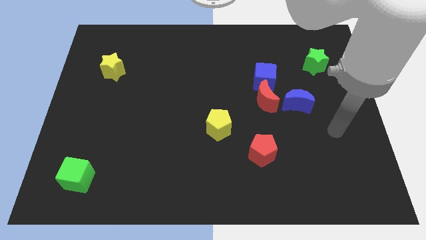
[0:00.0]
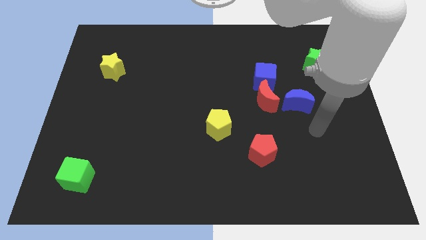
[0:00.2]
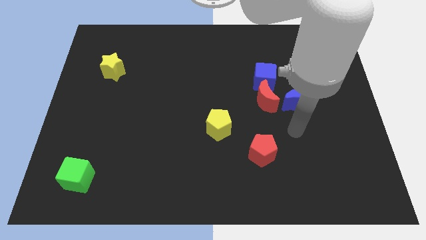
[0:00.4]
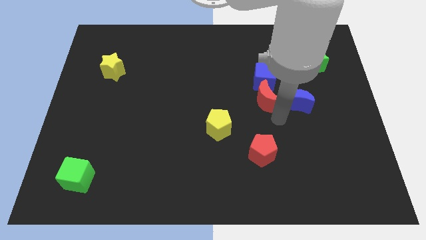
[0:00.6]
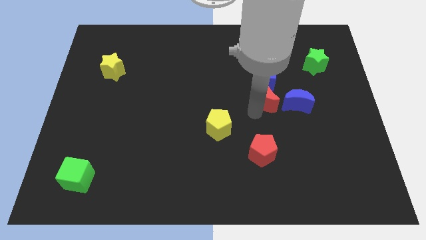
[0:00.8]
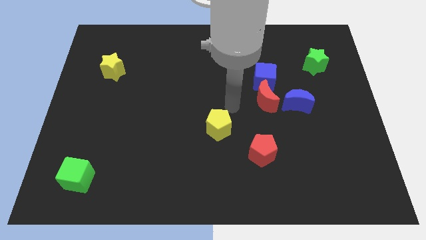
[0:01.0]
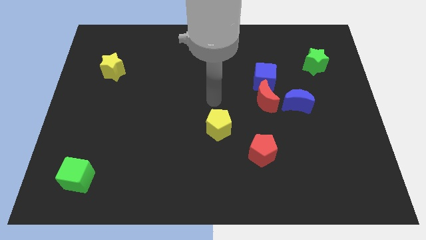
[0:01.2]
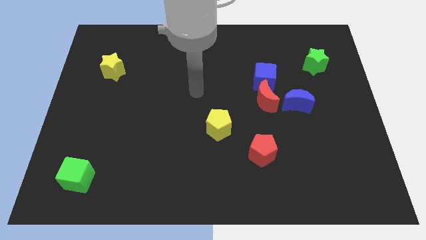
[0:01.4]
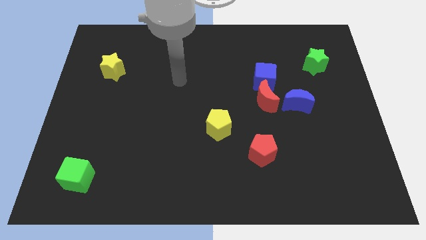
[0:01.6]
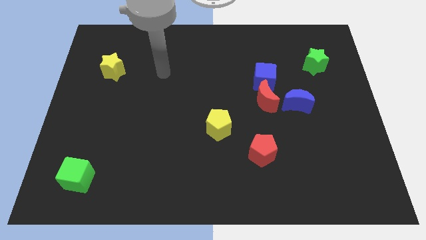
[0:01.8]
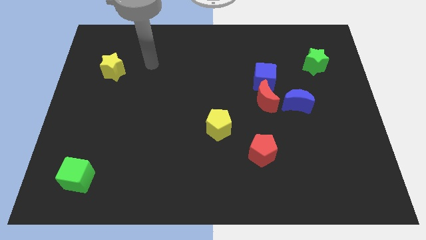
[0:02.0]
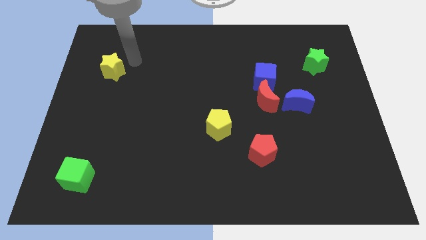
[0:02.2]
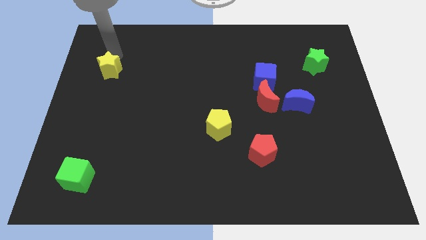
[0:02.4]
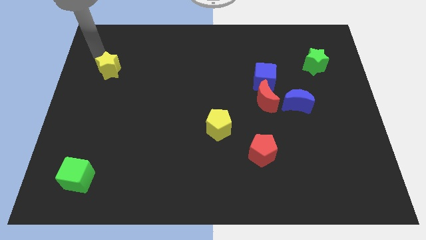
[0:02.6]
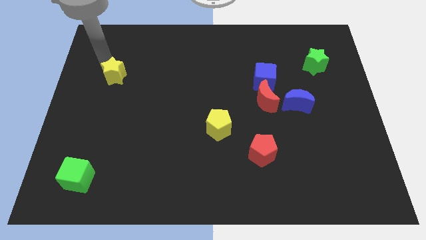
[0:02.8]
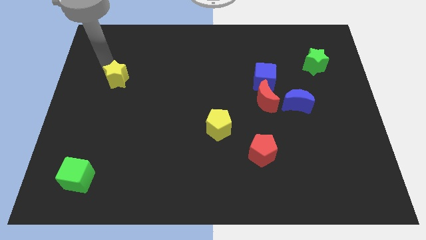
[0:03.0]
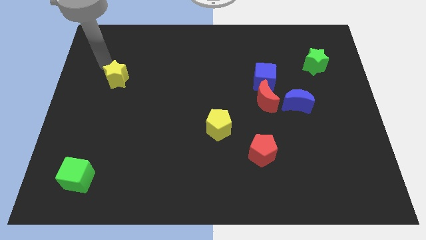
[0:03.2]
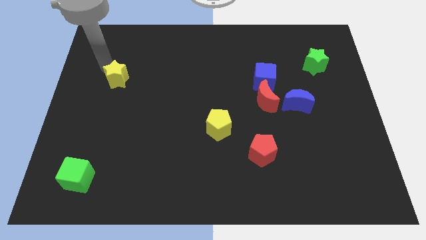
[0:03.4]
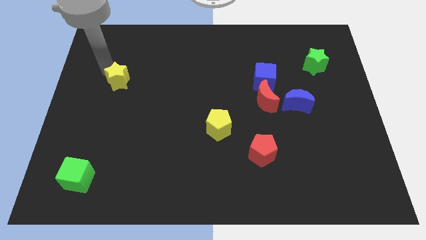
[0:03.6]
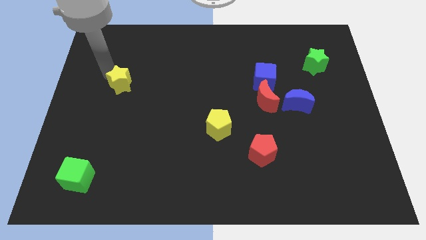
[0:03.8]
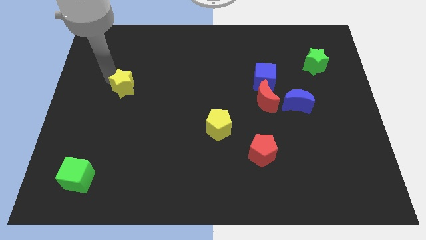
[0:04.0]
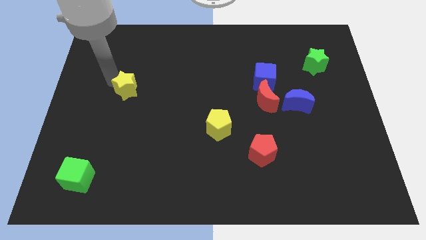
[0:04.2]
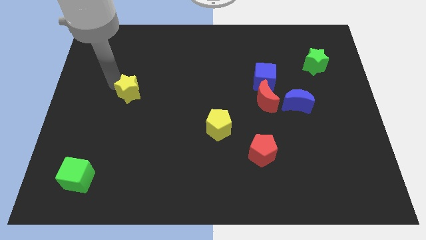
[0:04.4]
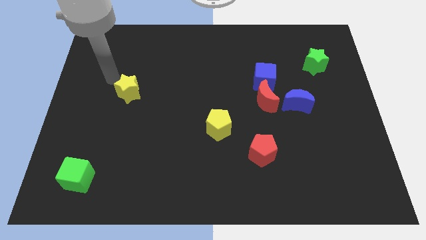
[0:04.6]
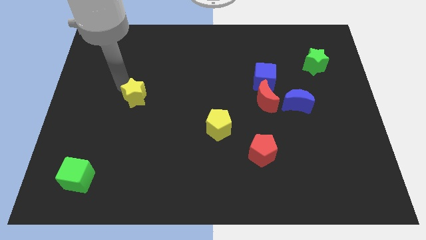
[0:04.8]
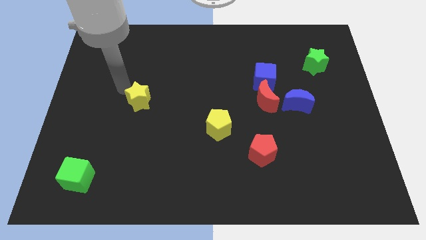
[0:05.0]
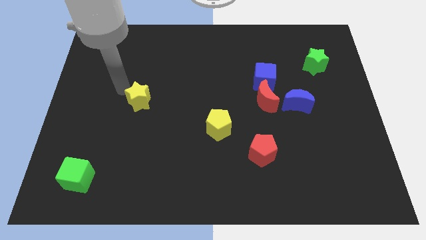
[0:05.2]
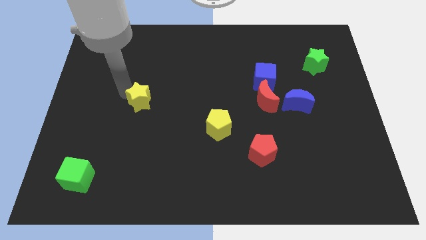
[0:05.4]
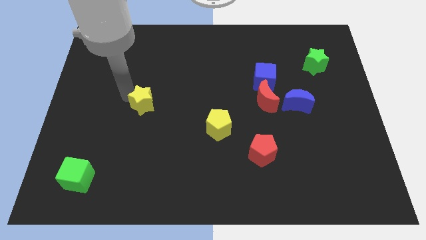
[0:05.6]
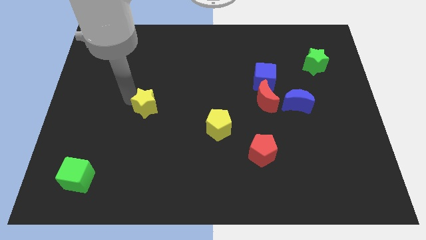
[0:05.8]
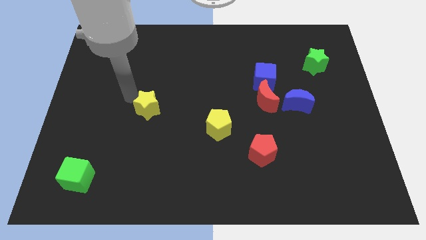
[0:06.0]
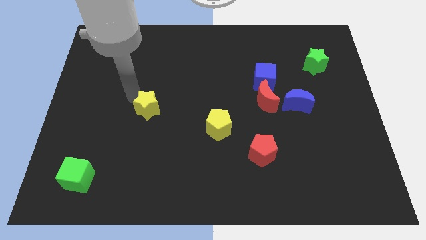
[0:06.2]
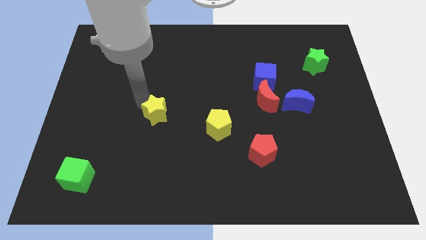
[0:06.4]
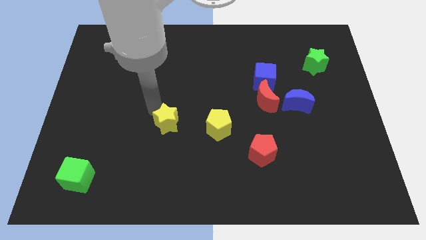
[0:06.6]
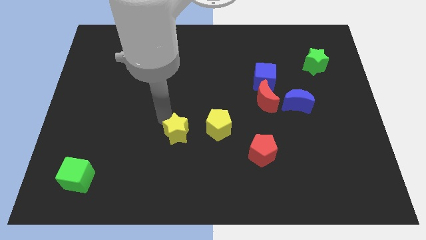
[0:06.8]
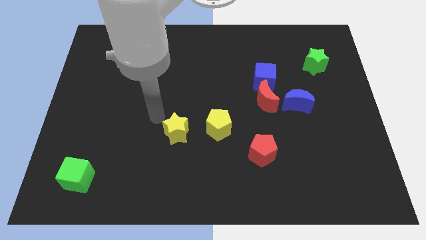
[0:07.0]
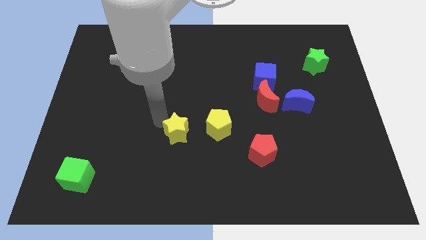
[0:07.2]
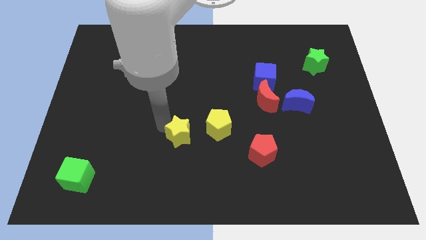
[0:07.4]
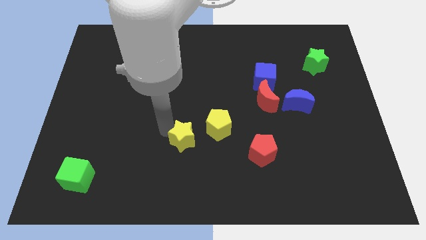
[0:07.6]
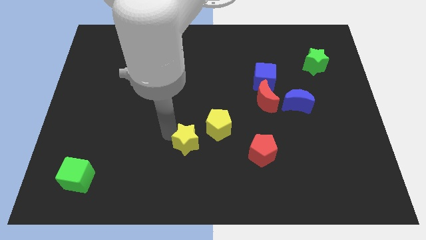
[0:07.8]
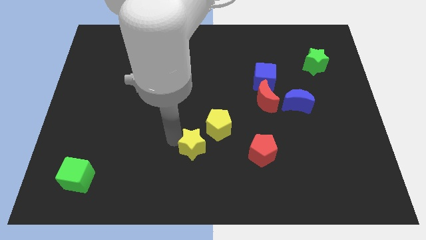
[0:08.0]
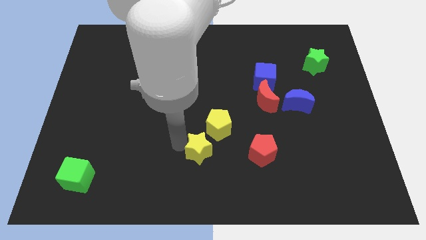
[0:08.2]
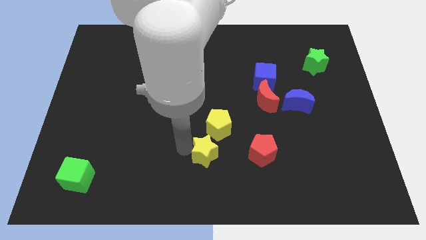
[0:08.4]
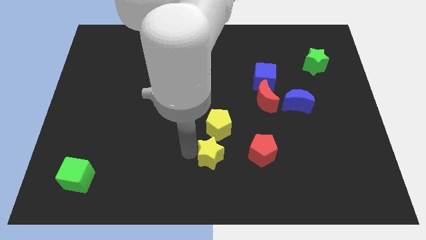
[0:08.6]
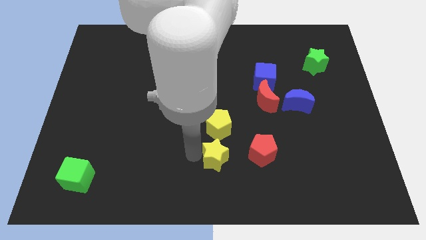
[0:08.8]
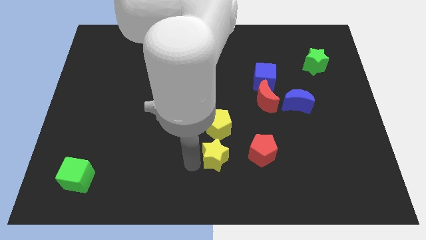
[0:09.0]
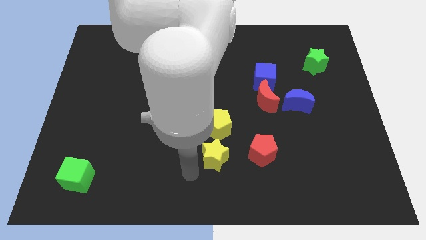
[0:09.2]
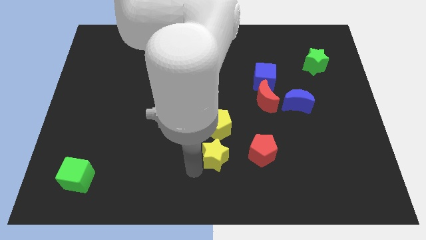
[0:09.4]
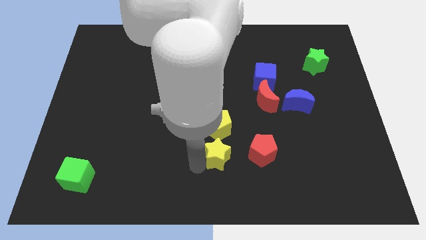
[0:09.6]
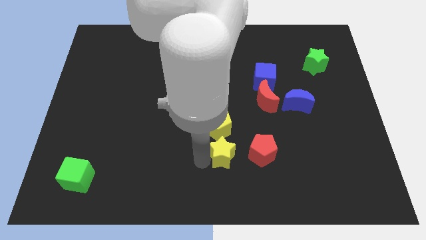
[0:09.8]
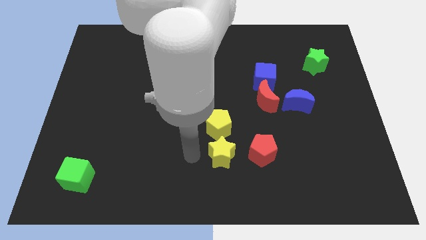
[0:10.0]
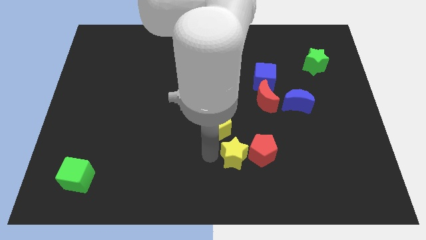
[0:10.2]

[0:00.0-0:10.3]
move the yellow star to the red pentagon

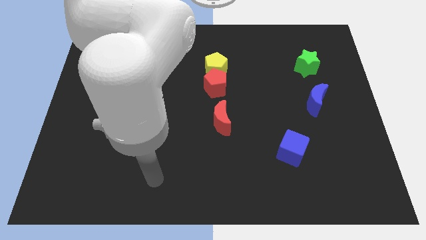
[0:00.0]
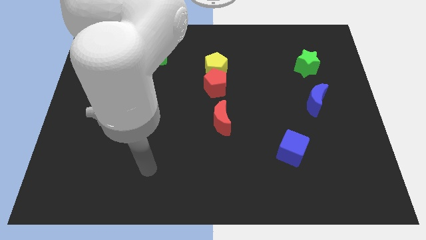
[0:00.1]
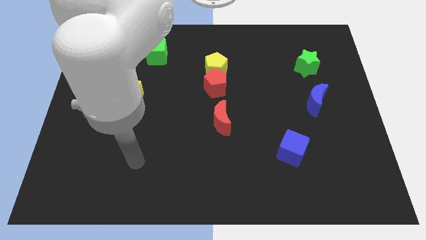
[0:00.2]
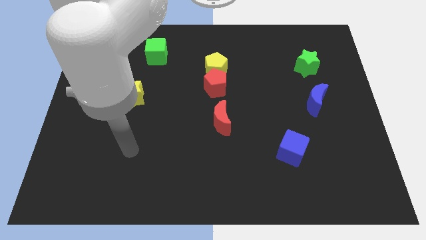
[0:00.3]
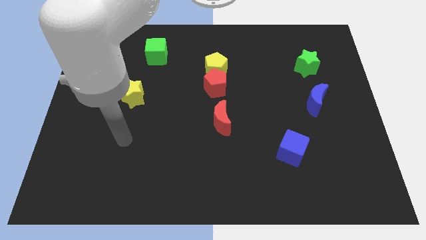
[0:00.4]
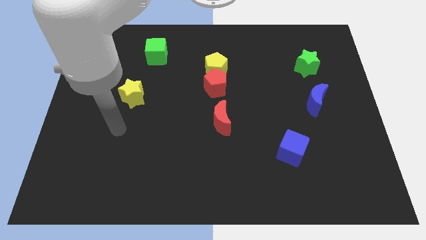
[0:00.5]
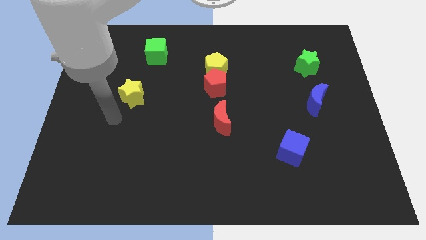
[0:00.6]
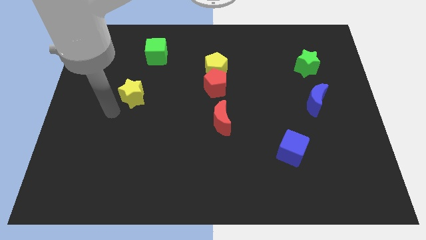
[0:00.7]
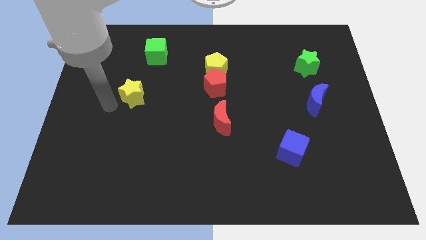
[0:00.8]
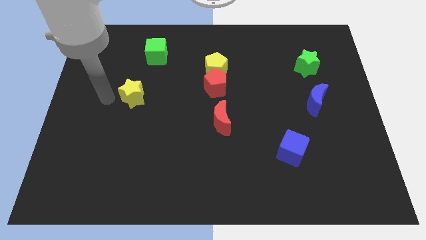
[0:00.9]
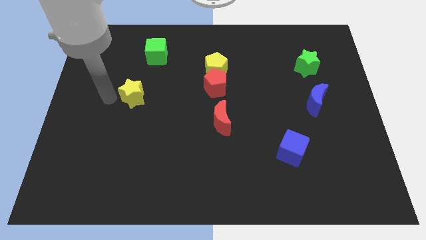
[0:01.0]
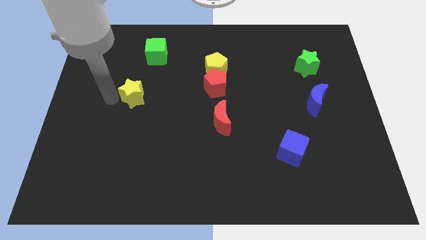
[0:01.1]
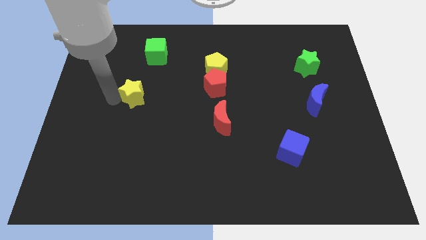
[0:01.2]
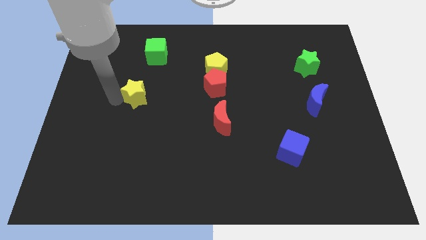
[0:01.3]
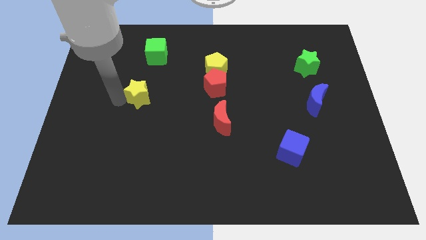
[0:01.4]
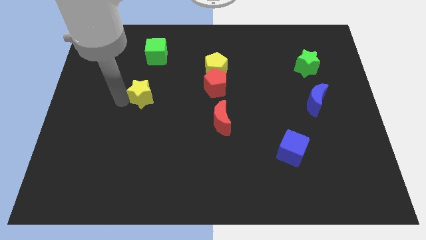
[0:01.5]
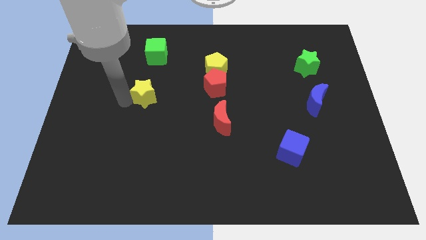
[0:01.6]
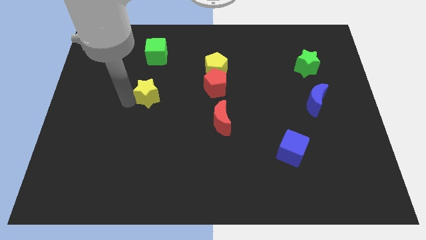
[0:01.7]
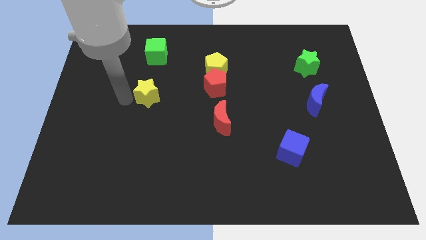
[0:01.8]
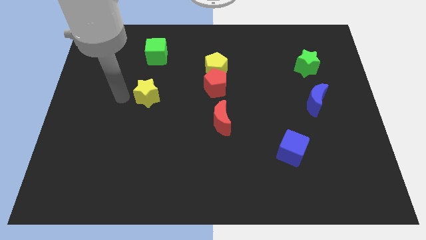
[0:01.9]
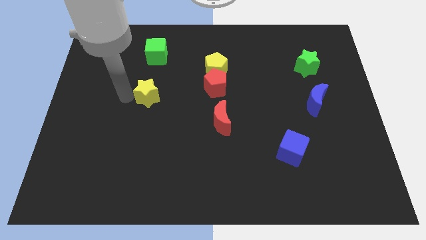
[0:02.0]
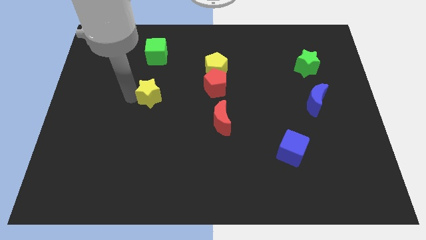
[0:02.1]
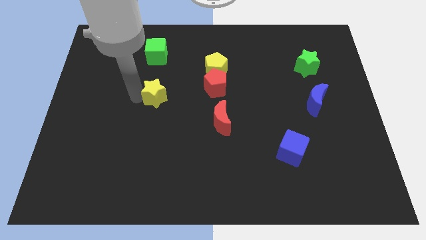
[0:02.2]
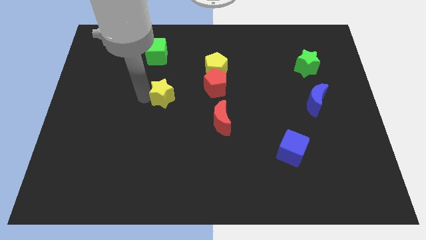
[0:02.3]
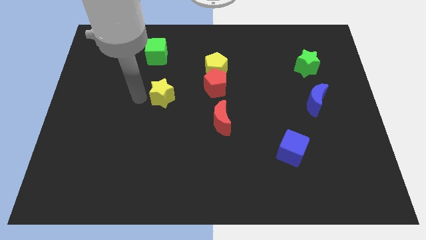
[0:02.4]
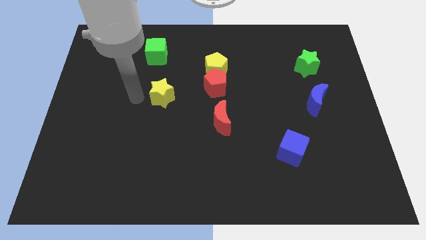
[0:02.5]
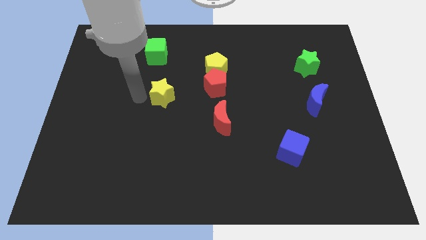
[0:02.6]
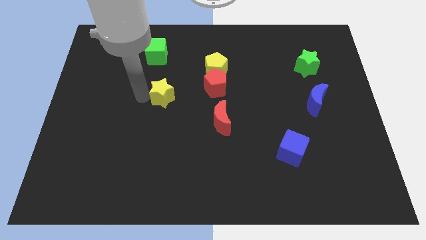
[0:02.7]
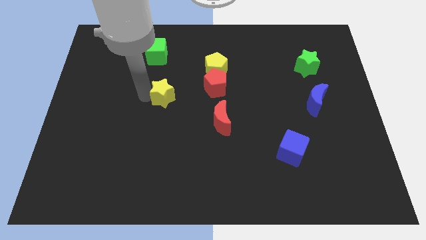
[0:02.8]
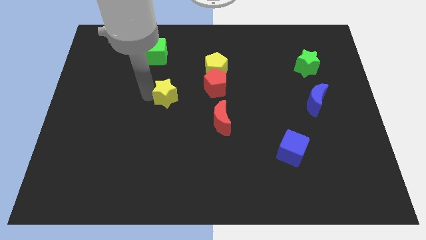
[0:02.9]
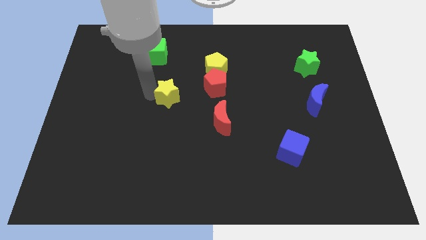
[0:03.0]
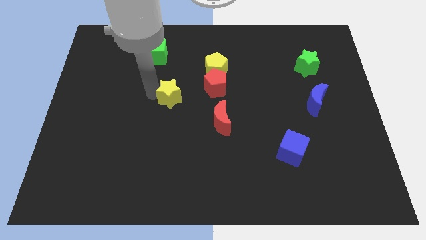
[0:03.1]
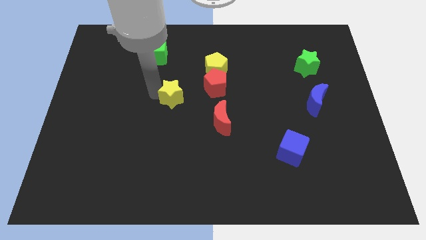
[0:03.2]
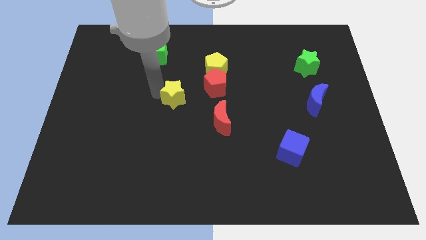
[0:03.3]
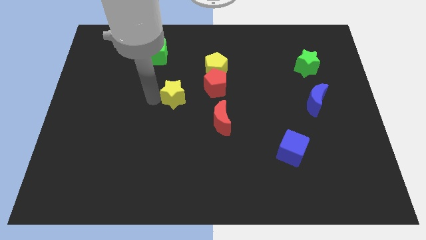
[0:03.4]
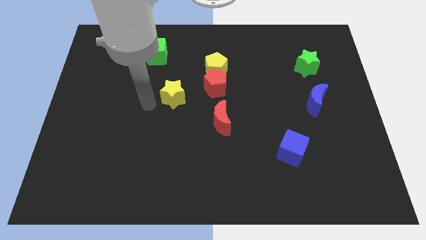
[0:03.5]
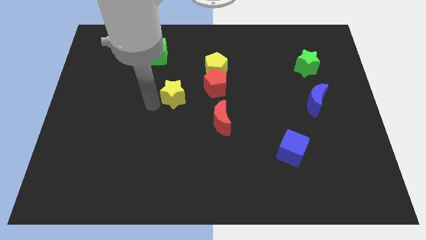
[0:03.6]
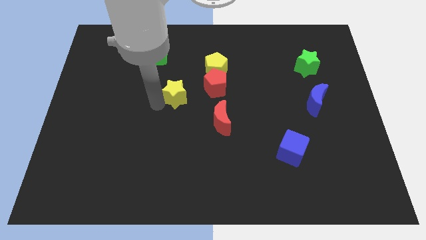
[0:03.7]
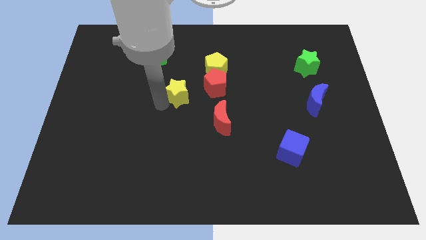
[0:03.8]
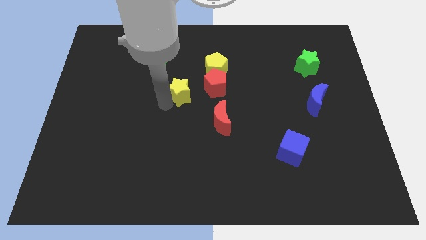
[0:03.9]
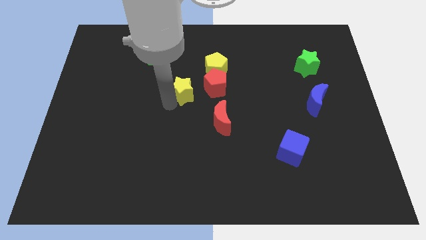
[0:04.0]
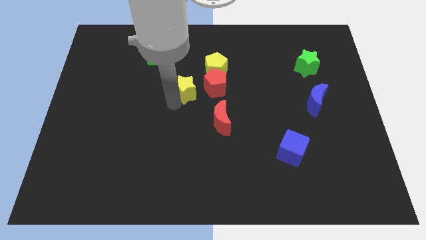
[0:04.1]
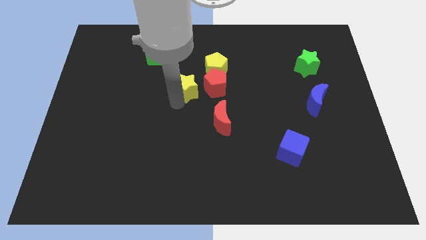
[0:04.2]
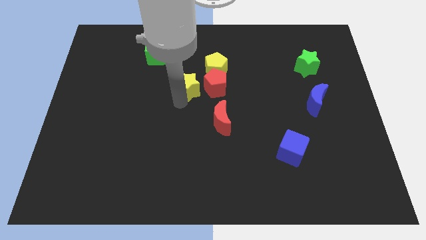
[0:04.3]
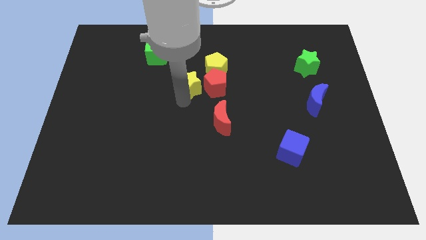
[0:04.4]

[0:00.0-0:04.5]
move the yellow star close to the red pentagon
